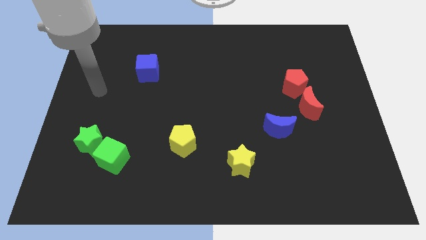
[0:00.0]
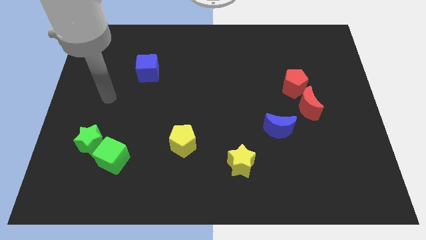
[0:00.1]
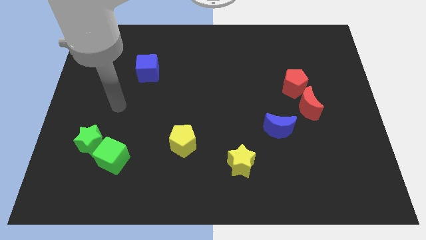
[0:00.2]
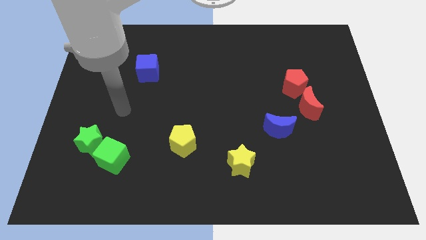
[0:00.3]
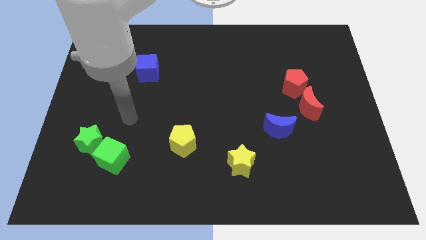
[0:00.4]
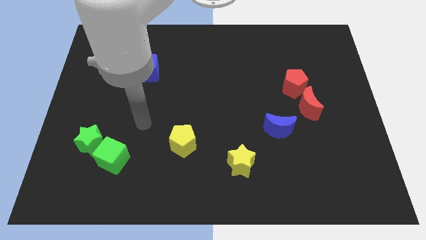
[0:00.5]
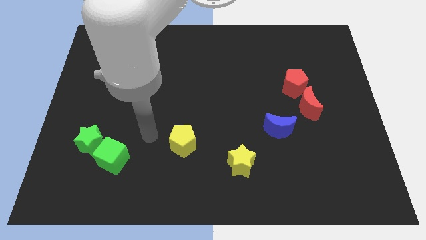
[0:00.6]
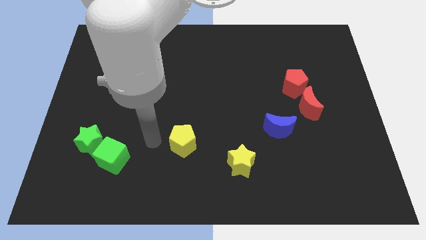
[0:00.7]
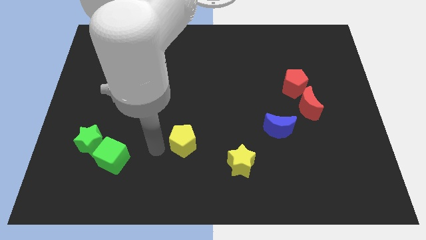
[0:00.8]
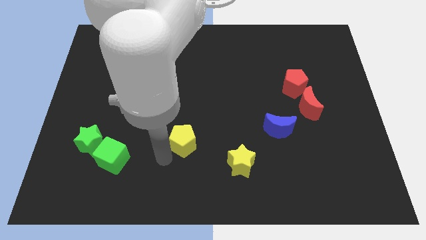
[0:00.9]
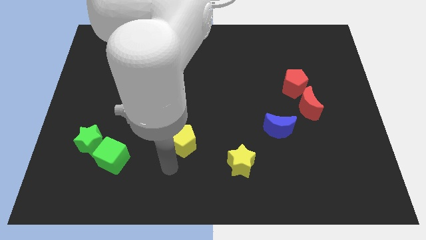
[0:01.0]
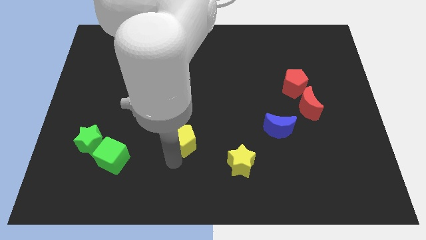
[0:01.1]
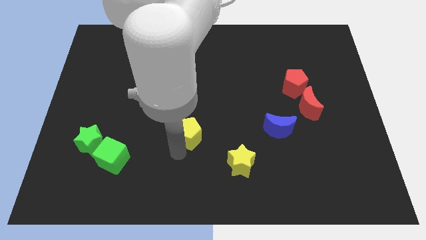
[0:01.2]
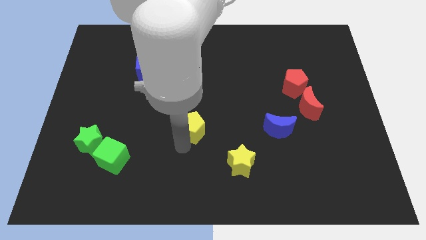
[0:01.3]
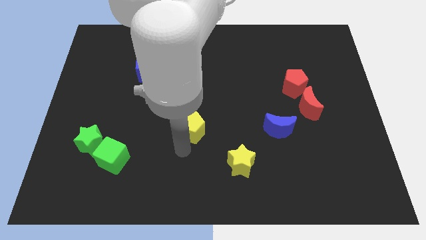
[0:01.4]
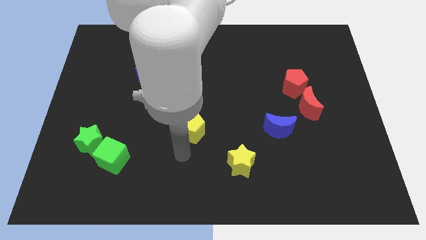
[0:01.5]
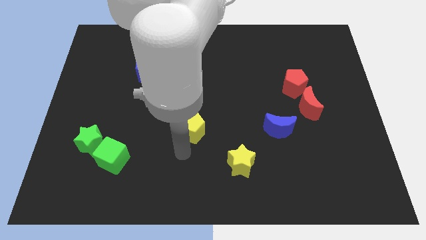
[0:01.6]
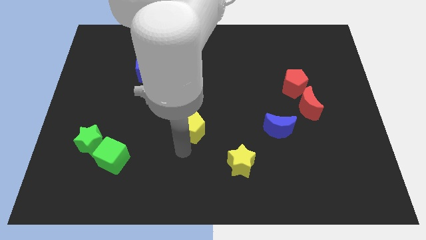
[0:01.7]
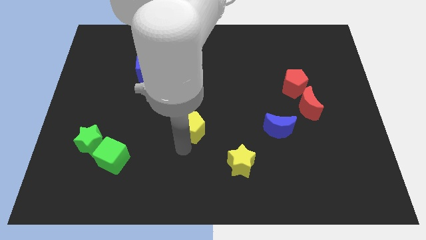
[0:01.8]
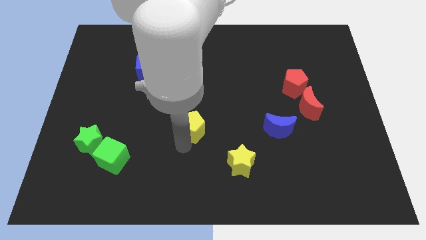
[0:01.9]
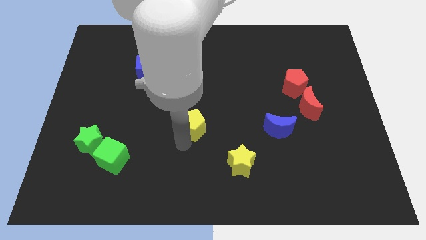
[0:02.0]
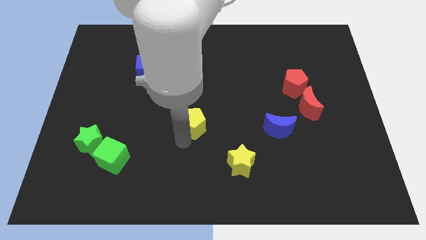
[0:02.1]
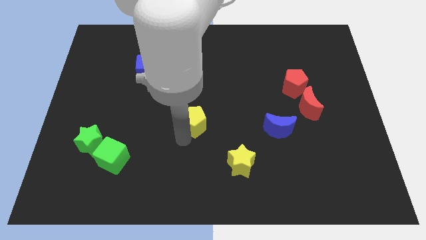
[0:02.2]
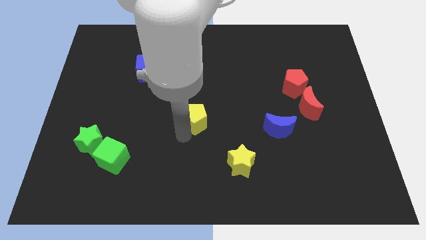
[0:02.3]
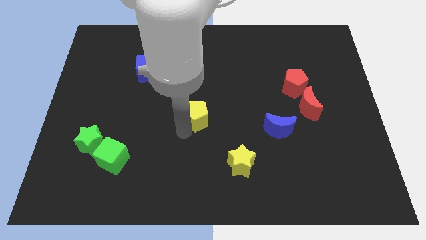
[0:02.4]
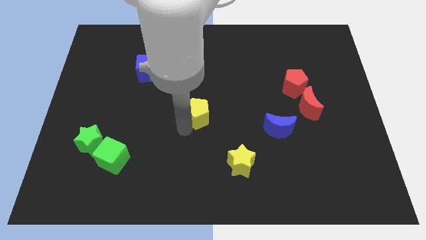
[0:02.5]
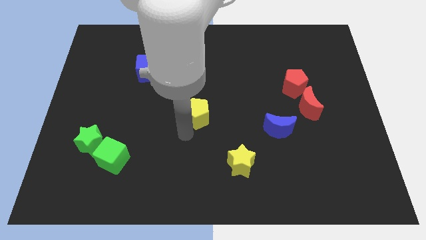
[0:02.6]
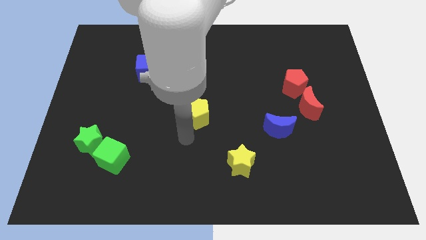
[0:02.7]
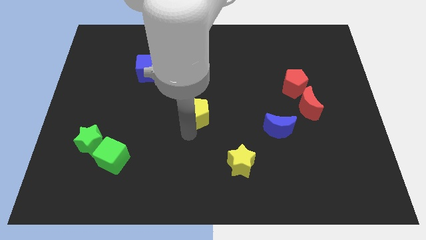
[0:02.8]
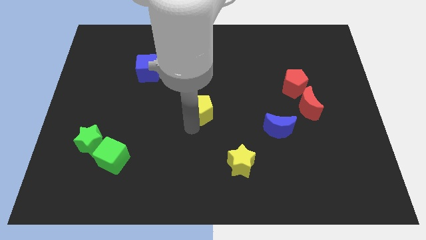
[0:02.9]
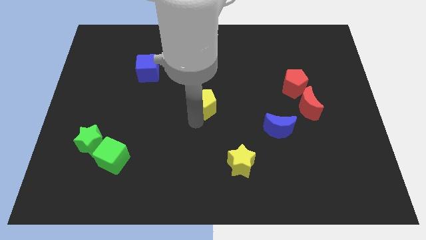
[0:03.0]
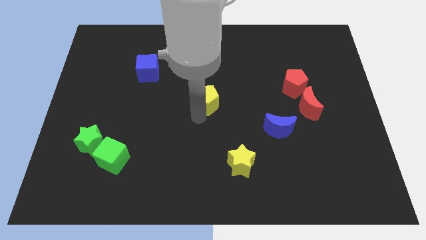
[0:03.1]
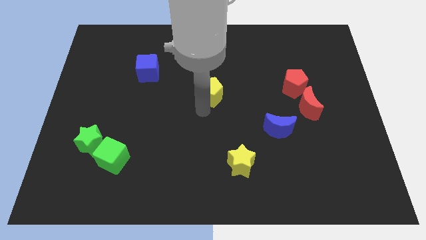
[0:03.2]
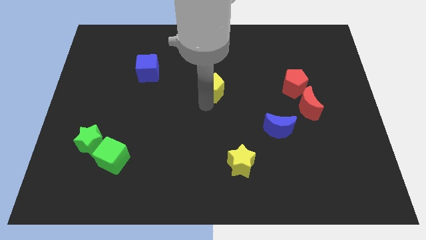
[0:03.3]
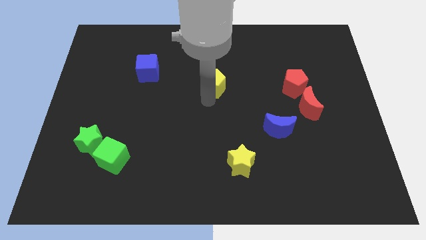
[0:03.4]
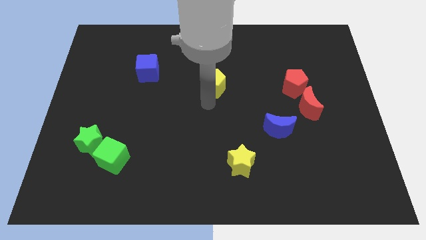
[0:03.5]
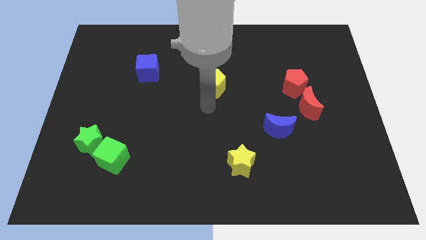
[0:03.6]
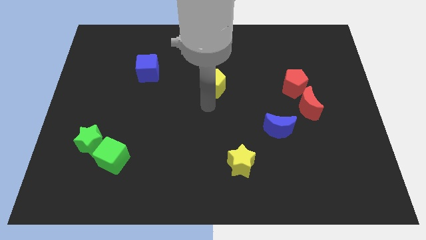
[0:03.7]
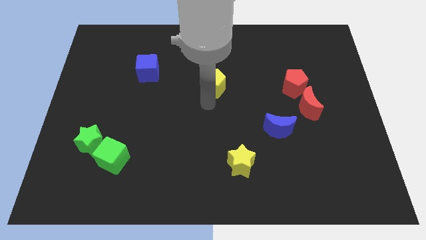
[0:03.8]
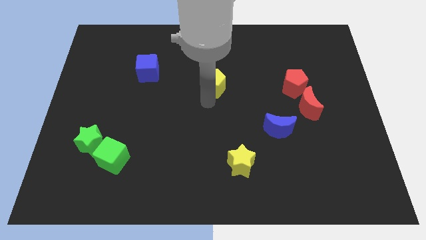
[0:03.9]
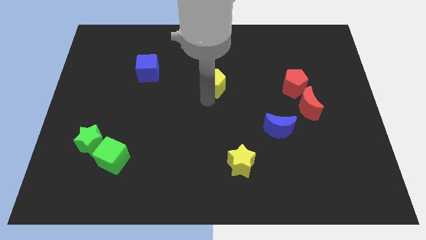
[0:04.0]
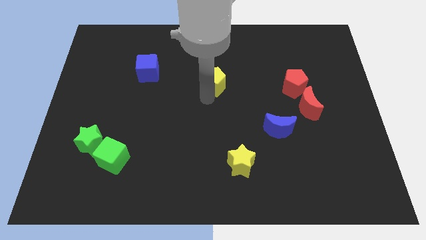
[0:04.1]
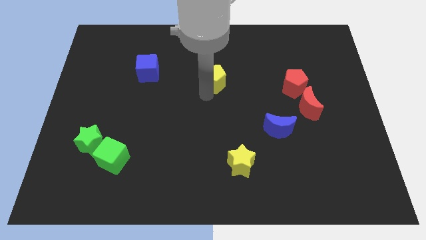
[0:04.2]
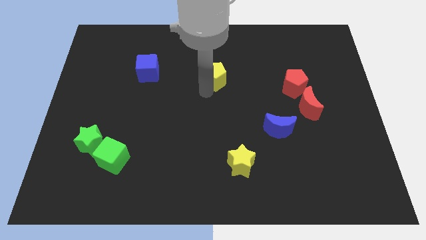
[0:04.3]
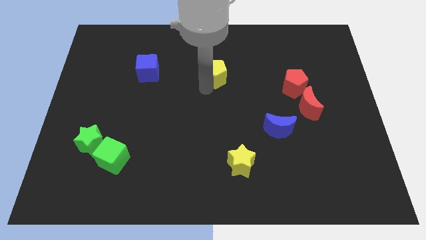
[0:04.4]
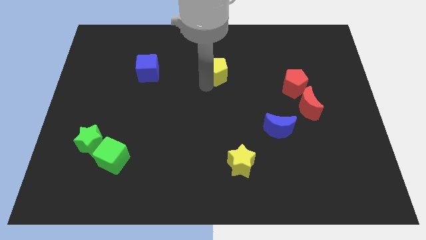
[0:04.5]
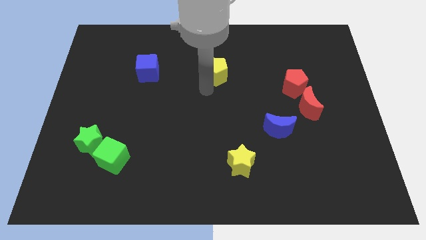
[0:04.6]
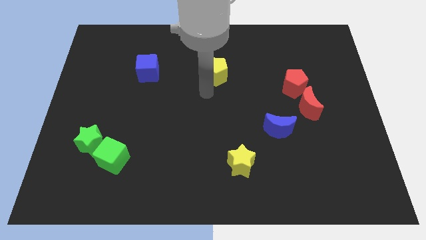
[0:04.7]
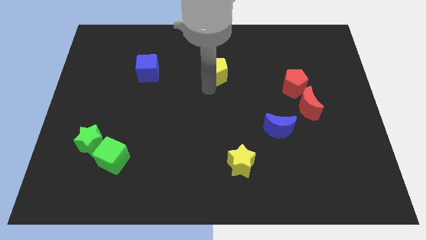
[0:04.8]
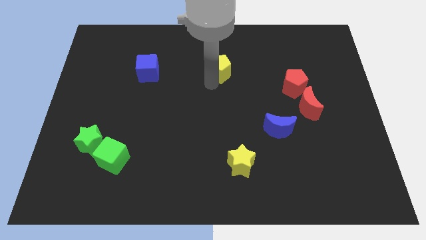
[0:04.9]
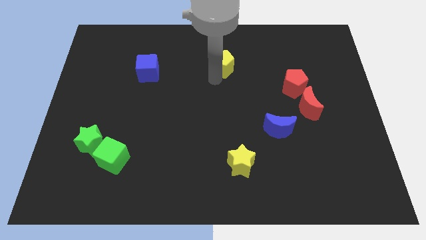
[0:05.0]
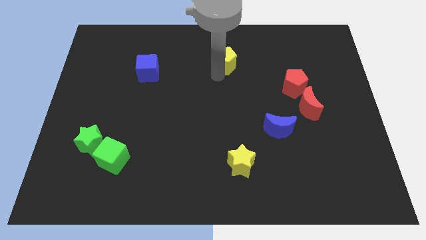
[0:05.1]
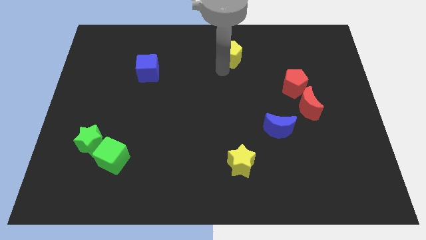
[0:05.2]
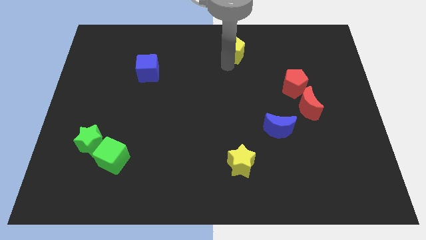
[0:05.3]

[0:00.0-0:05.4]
push the yellow pentagon to the top side
